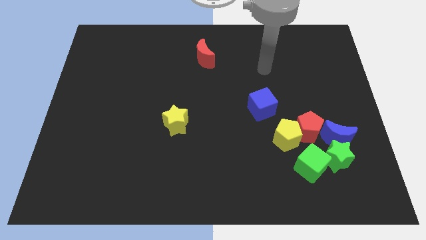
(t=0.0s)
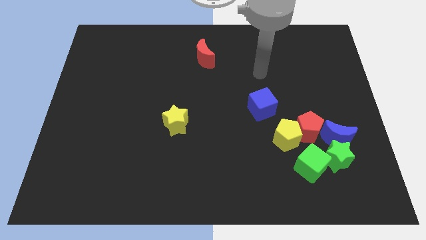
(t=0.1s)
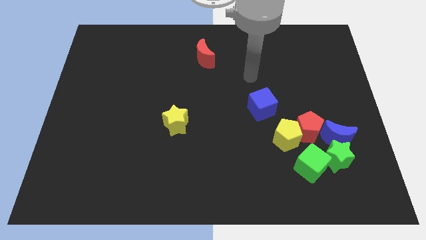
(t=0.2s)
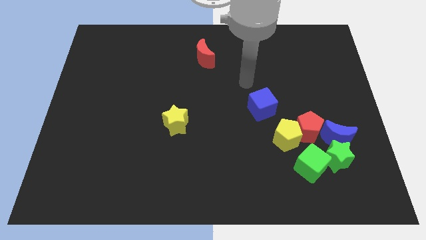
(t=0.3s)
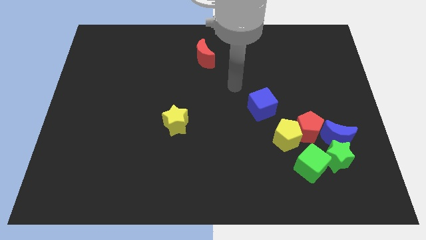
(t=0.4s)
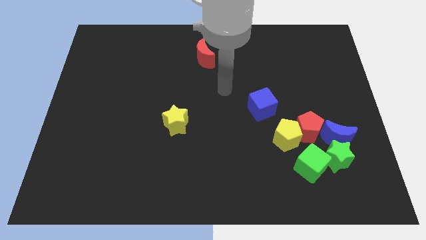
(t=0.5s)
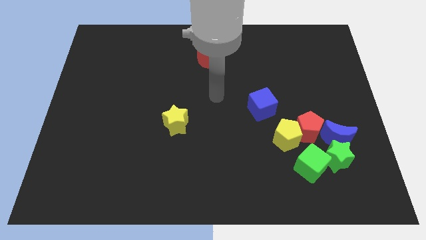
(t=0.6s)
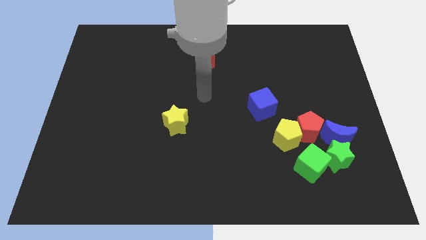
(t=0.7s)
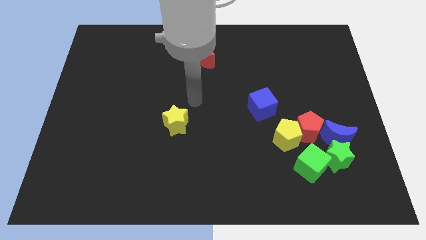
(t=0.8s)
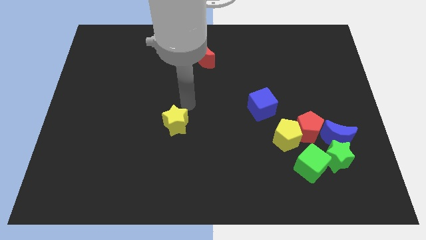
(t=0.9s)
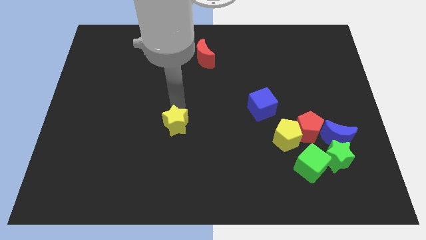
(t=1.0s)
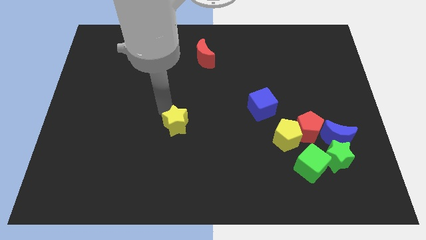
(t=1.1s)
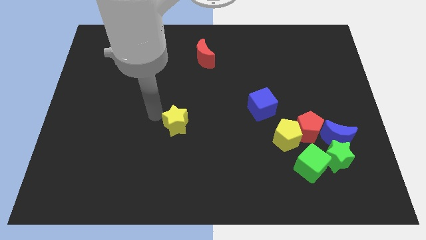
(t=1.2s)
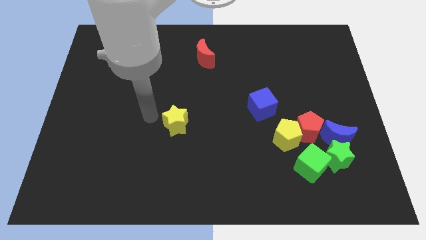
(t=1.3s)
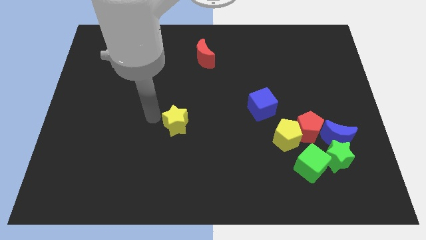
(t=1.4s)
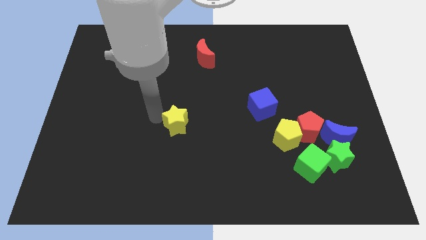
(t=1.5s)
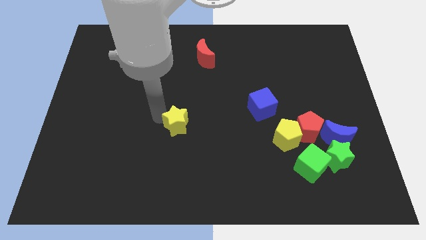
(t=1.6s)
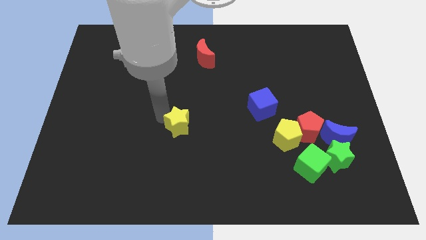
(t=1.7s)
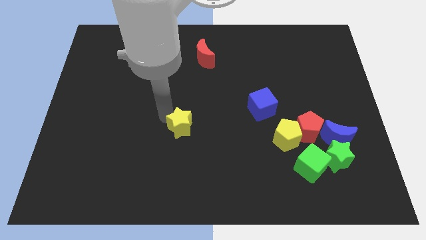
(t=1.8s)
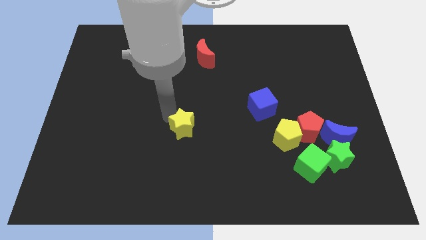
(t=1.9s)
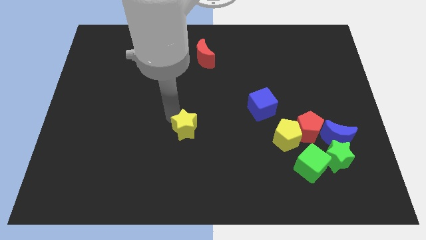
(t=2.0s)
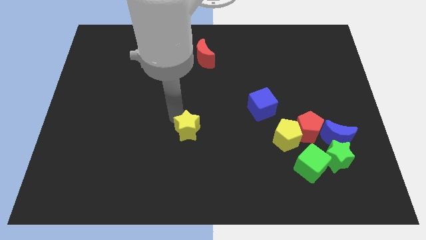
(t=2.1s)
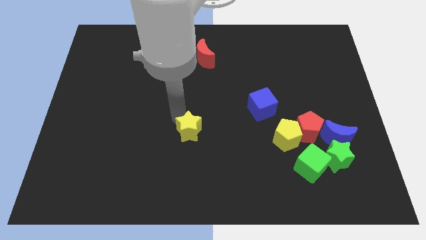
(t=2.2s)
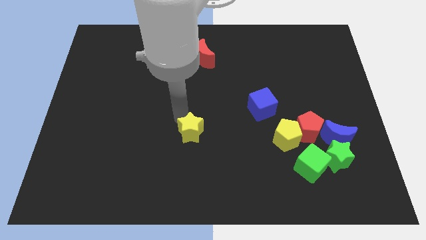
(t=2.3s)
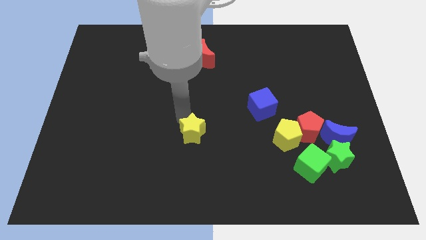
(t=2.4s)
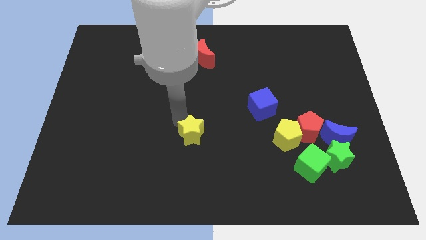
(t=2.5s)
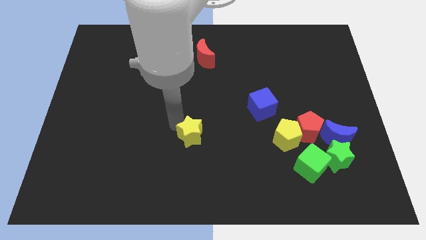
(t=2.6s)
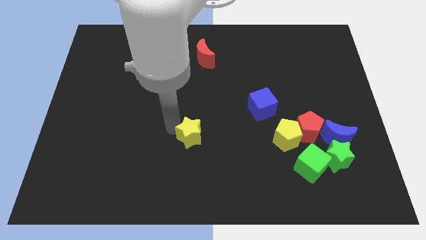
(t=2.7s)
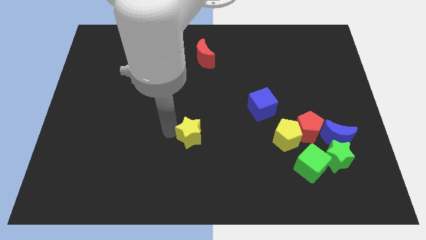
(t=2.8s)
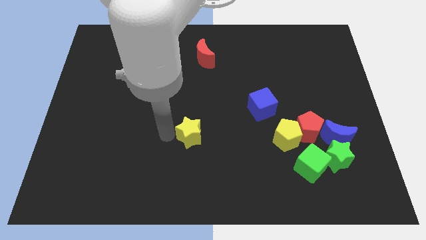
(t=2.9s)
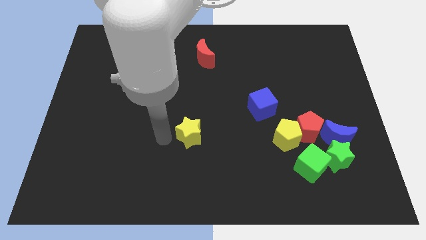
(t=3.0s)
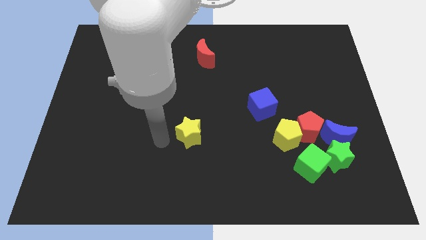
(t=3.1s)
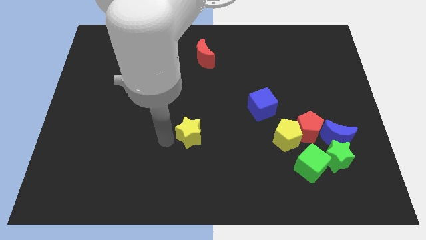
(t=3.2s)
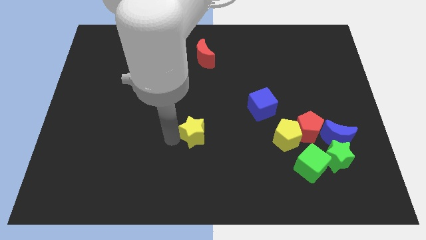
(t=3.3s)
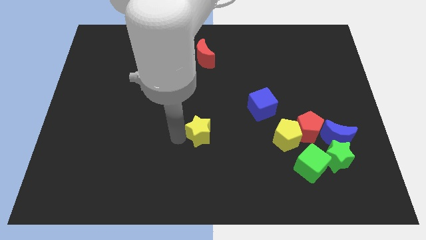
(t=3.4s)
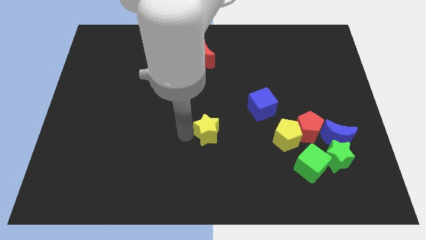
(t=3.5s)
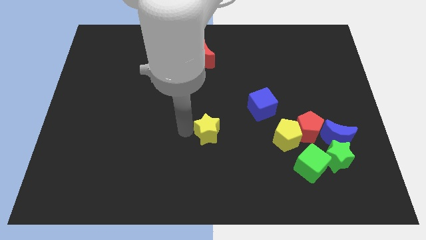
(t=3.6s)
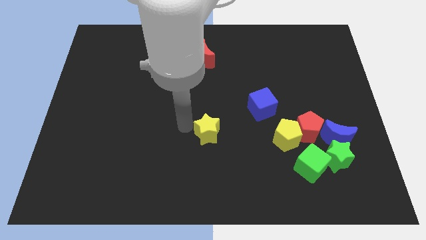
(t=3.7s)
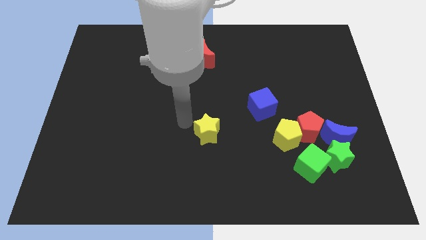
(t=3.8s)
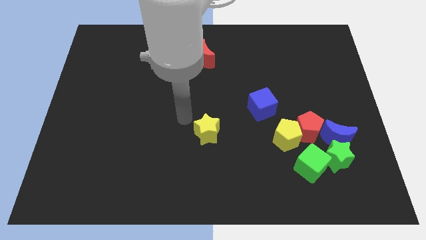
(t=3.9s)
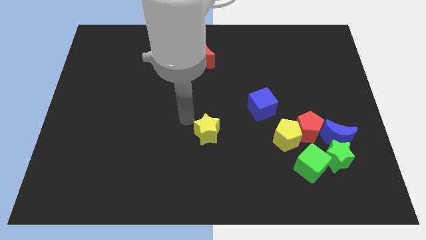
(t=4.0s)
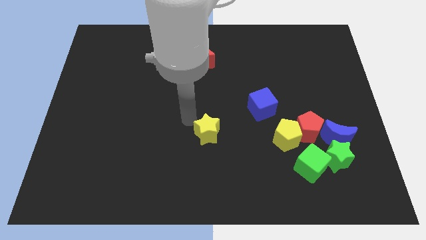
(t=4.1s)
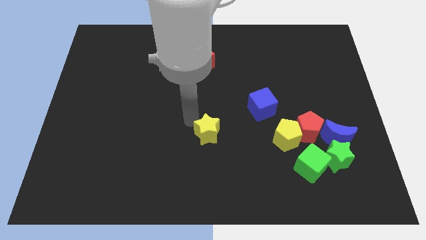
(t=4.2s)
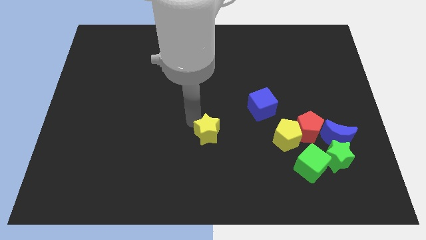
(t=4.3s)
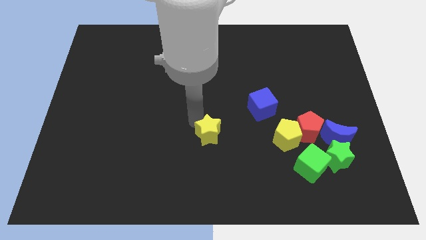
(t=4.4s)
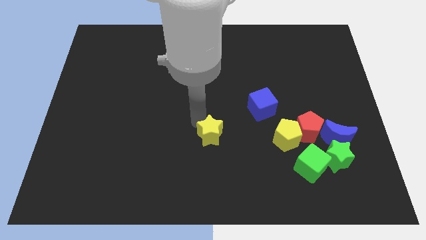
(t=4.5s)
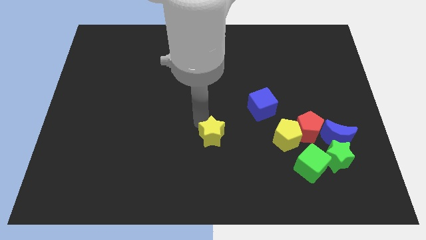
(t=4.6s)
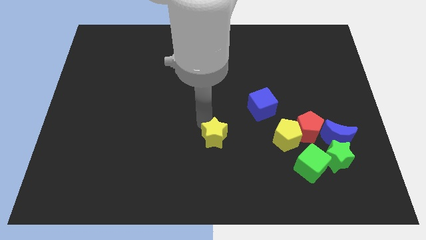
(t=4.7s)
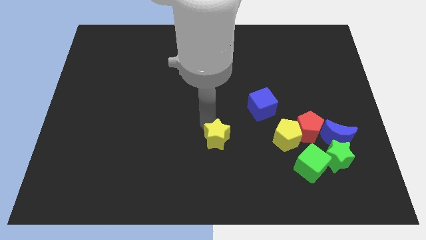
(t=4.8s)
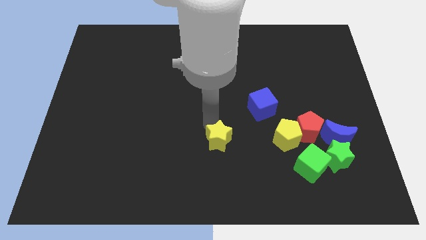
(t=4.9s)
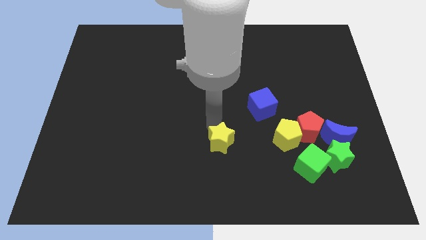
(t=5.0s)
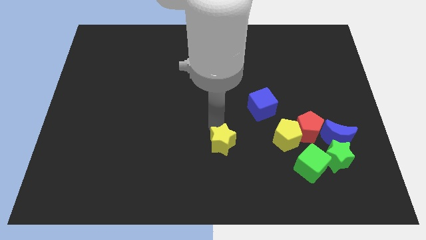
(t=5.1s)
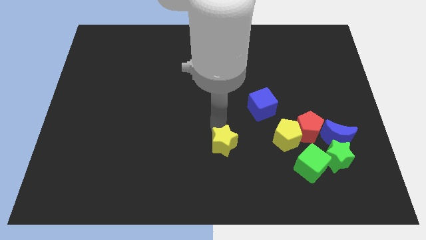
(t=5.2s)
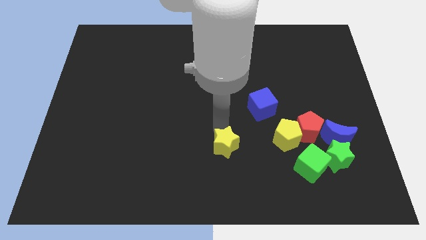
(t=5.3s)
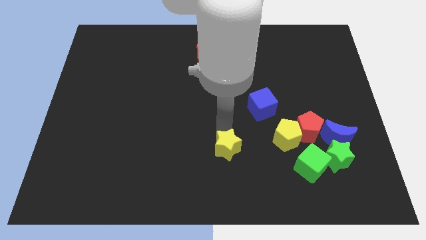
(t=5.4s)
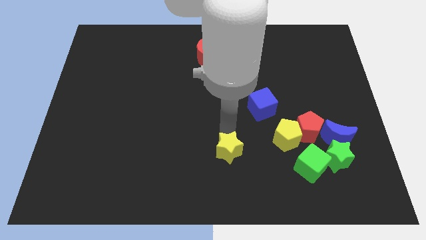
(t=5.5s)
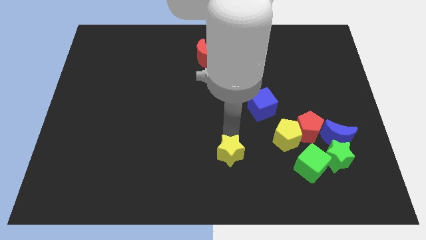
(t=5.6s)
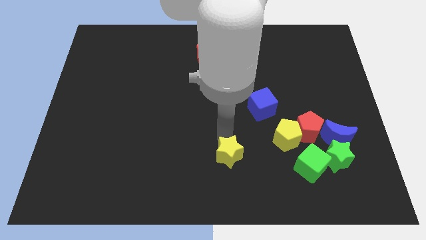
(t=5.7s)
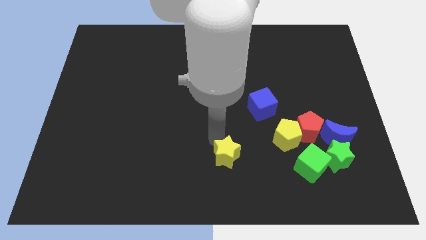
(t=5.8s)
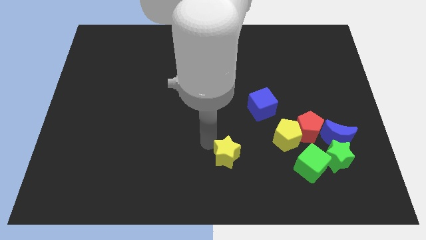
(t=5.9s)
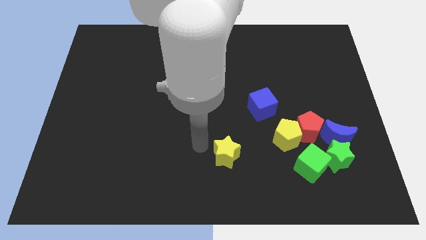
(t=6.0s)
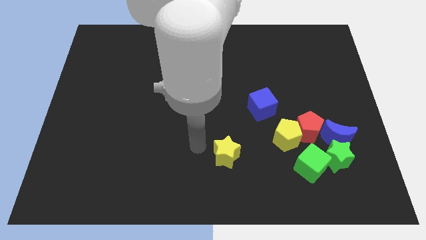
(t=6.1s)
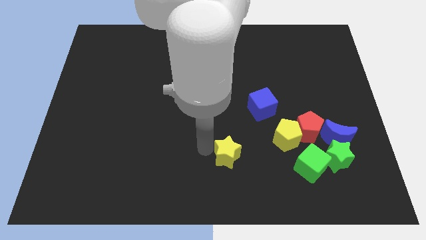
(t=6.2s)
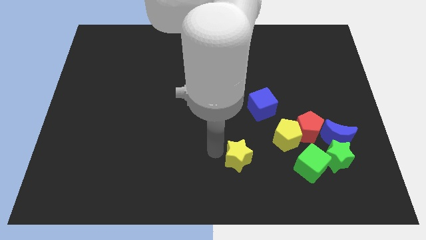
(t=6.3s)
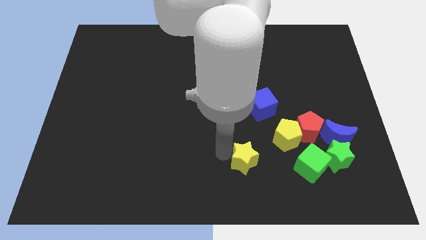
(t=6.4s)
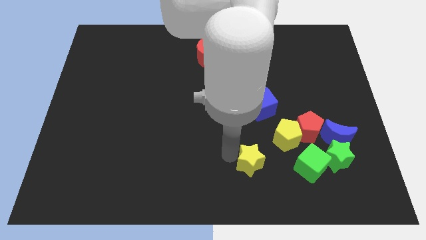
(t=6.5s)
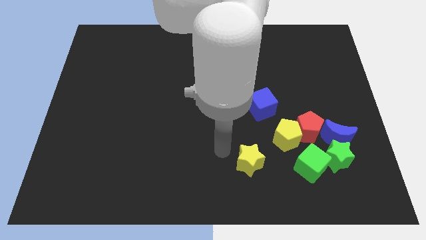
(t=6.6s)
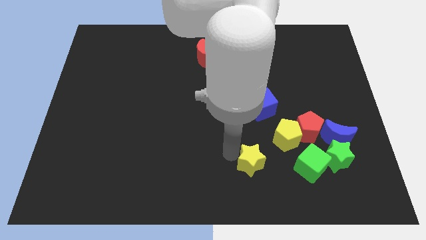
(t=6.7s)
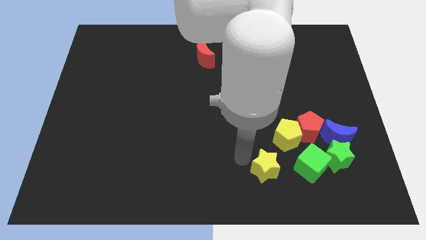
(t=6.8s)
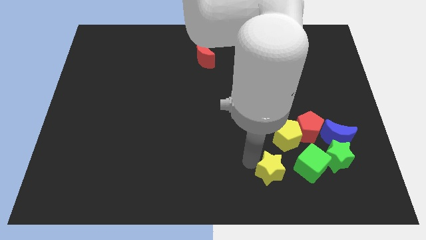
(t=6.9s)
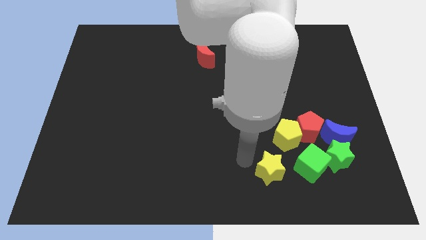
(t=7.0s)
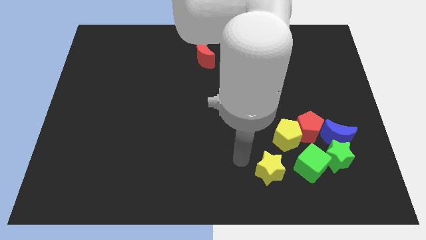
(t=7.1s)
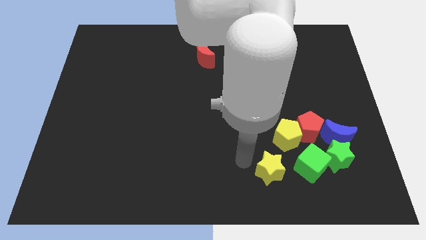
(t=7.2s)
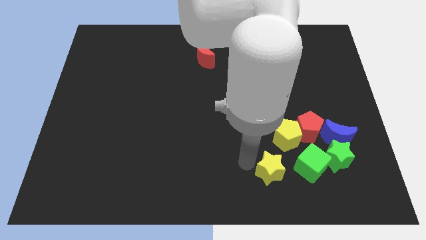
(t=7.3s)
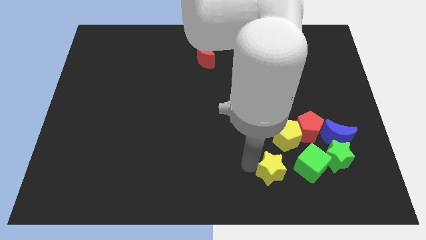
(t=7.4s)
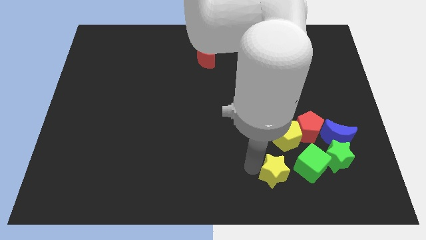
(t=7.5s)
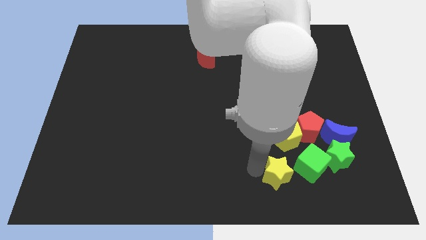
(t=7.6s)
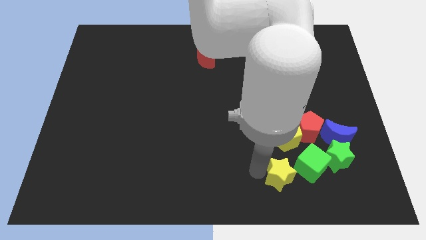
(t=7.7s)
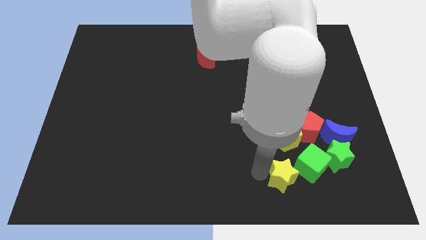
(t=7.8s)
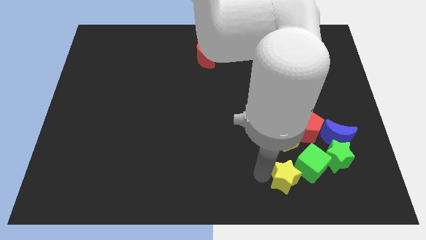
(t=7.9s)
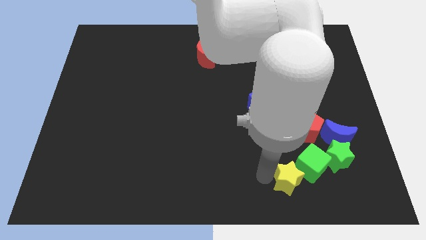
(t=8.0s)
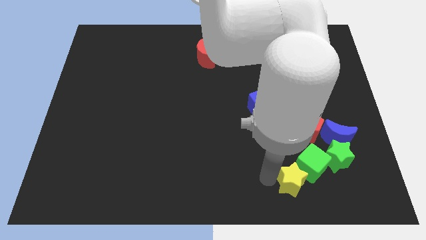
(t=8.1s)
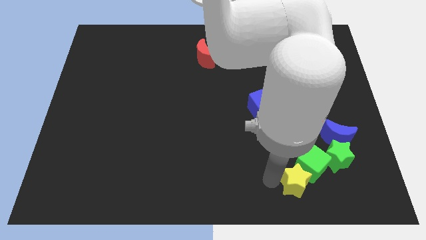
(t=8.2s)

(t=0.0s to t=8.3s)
slide the yellow star below the red pentagon
